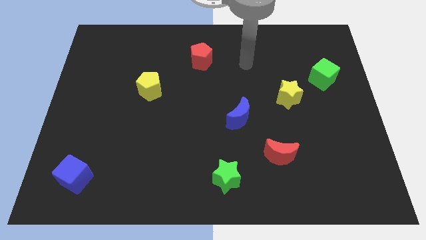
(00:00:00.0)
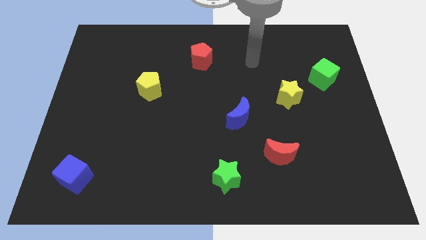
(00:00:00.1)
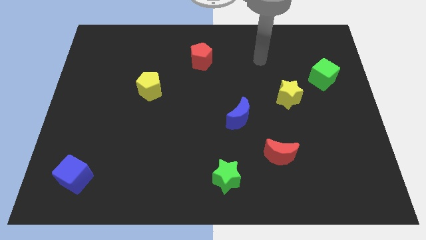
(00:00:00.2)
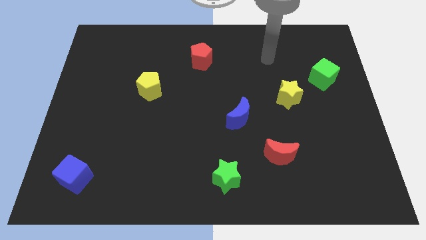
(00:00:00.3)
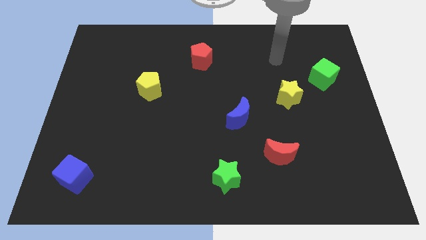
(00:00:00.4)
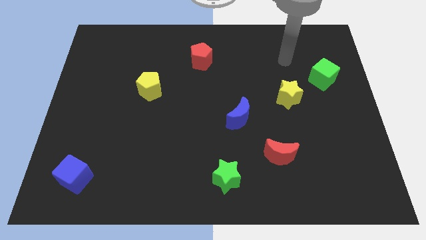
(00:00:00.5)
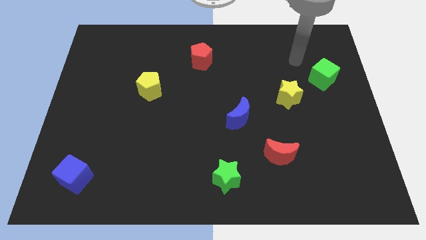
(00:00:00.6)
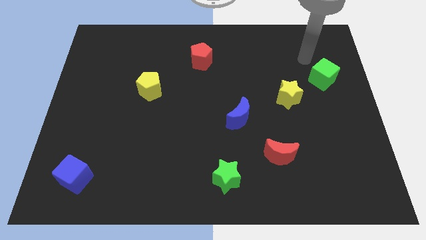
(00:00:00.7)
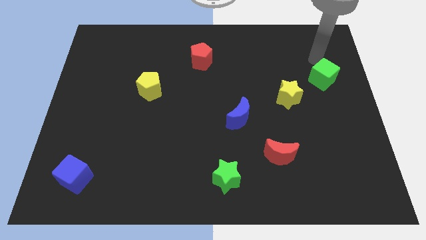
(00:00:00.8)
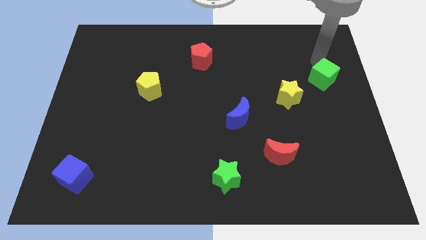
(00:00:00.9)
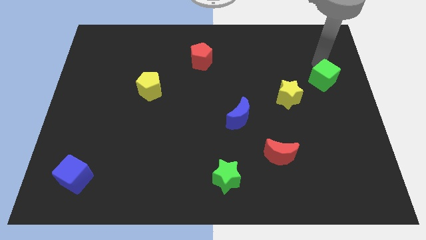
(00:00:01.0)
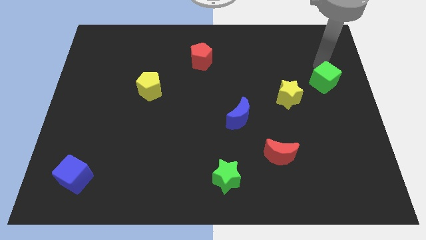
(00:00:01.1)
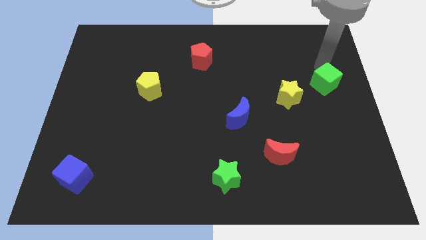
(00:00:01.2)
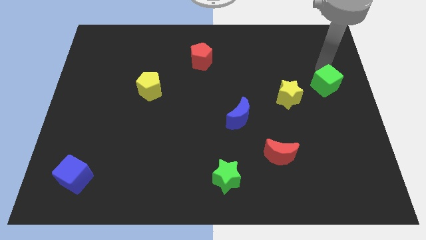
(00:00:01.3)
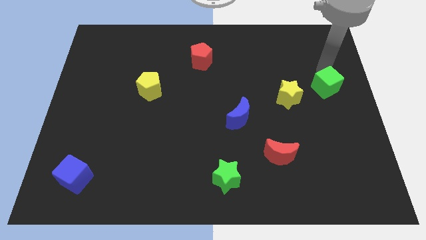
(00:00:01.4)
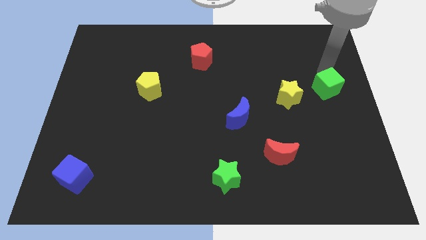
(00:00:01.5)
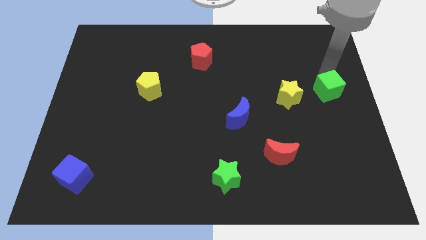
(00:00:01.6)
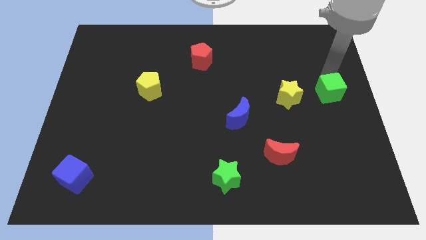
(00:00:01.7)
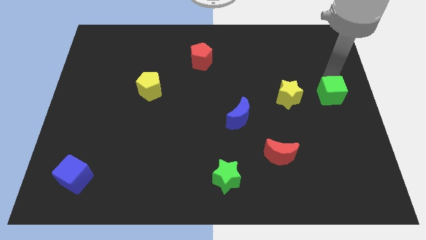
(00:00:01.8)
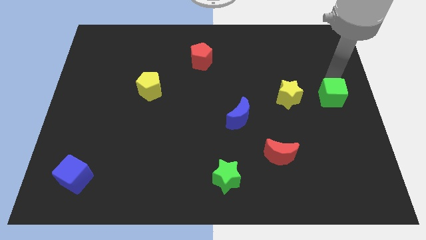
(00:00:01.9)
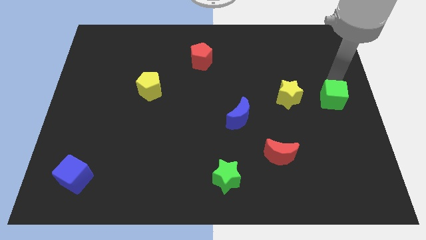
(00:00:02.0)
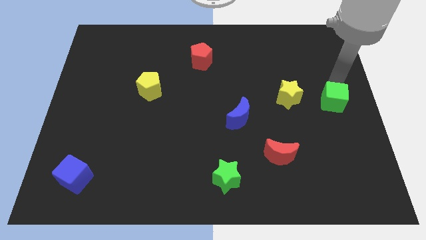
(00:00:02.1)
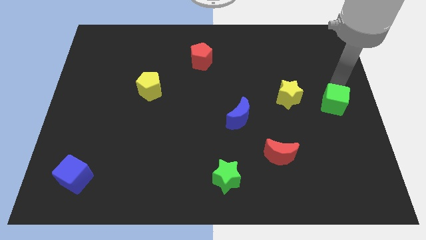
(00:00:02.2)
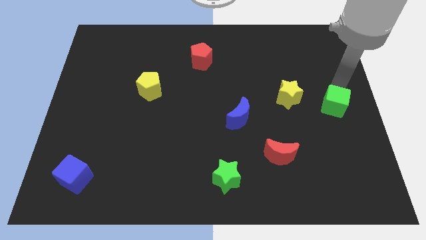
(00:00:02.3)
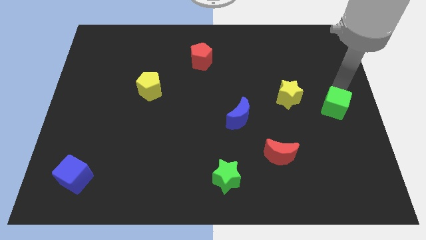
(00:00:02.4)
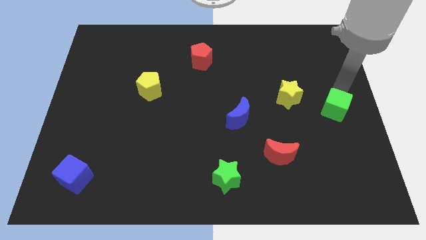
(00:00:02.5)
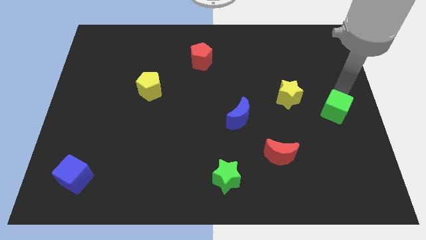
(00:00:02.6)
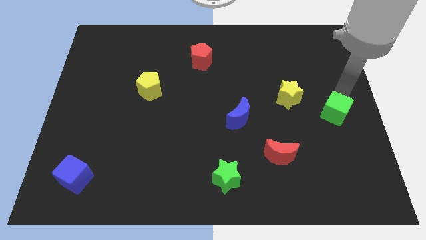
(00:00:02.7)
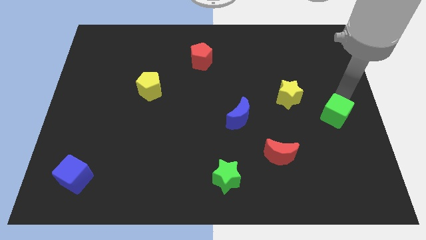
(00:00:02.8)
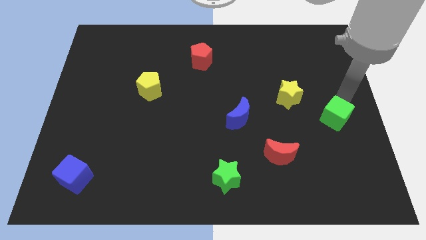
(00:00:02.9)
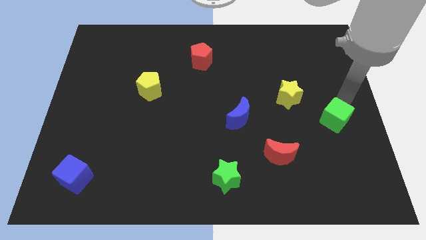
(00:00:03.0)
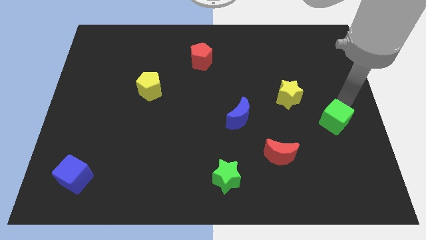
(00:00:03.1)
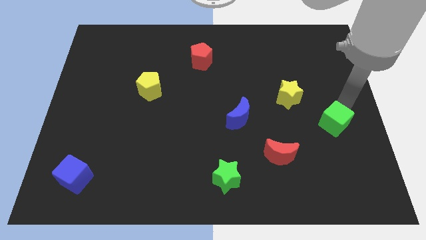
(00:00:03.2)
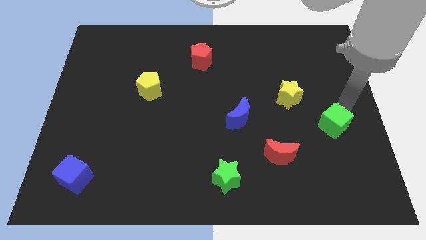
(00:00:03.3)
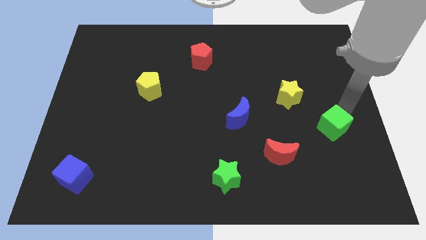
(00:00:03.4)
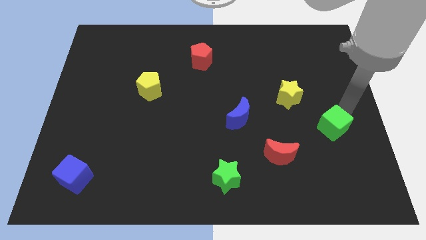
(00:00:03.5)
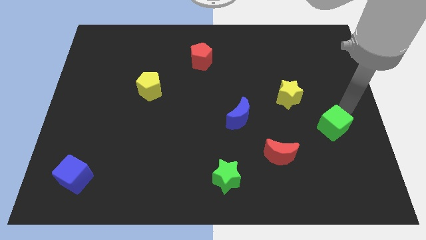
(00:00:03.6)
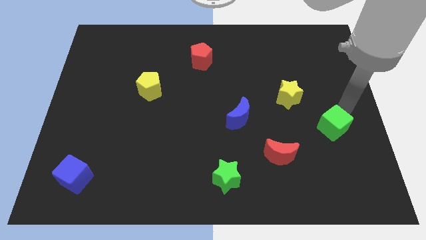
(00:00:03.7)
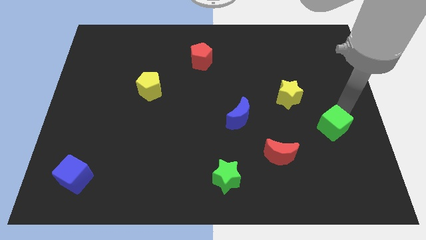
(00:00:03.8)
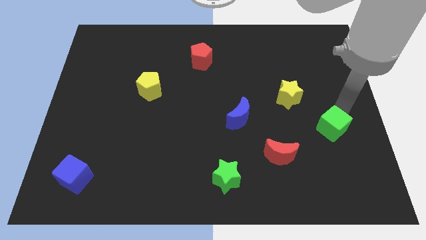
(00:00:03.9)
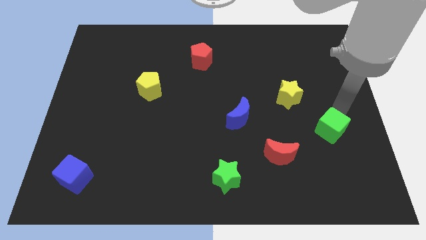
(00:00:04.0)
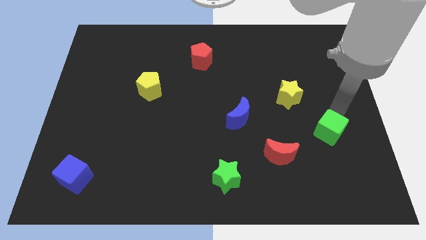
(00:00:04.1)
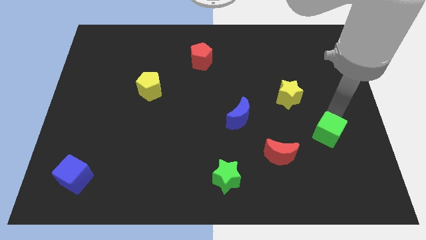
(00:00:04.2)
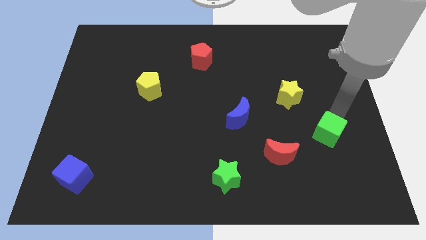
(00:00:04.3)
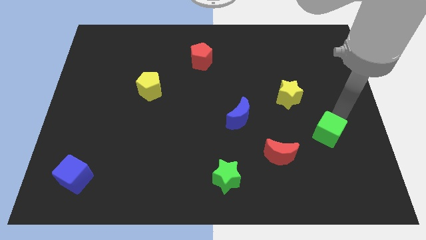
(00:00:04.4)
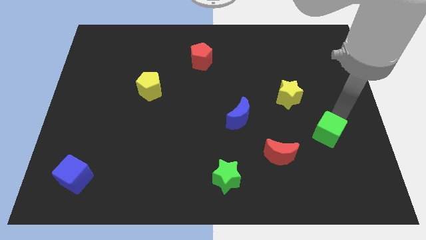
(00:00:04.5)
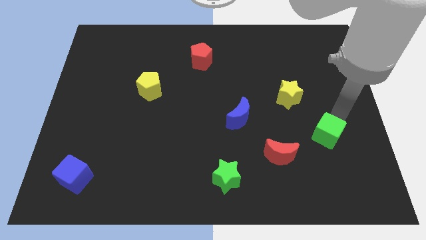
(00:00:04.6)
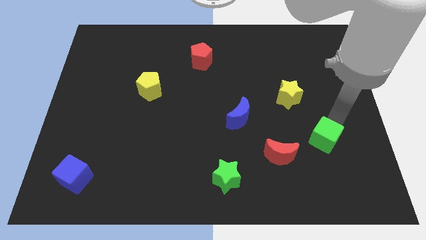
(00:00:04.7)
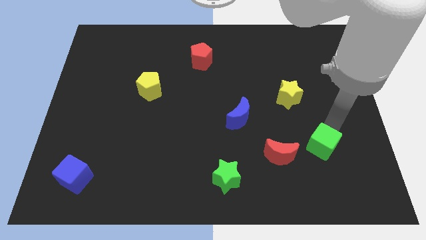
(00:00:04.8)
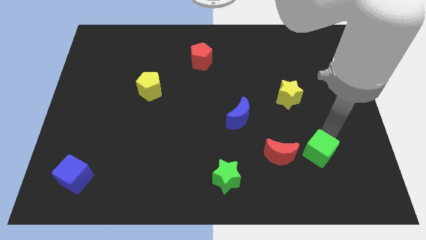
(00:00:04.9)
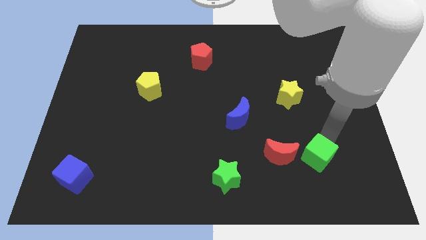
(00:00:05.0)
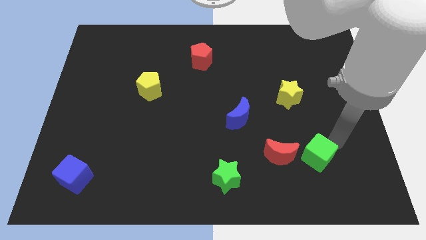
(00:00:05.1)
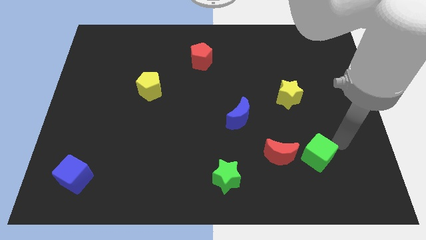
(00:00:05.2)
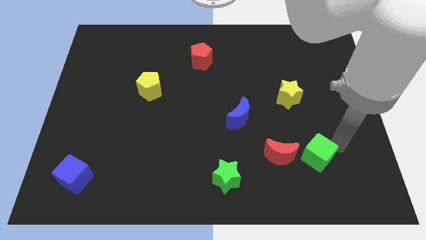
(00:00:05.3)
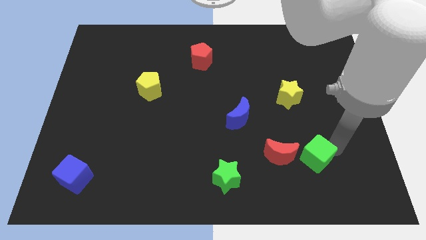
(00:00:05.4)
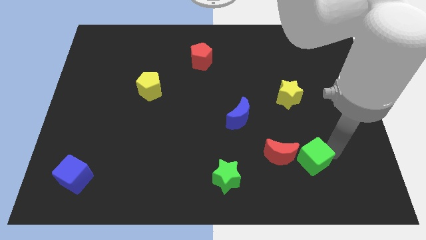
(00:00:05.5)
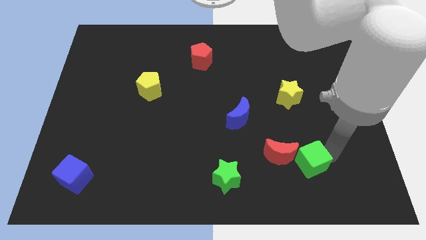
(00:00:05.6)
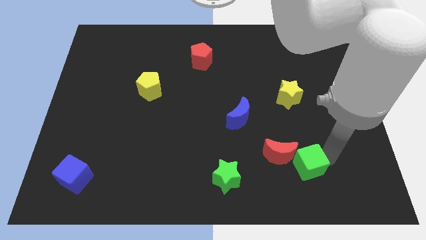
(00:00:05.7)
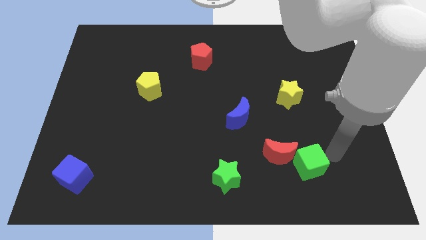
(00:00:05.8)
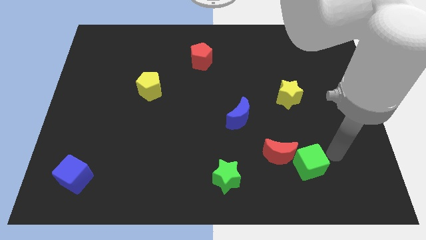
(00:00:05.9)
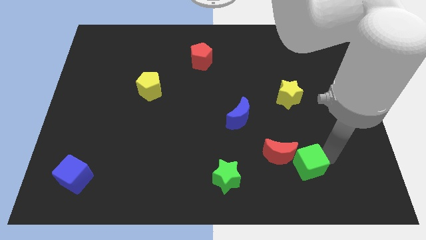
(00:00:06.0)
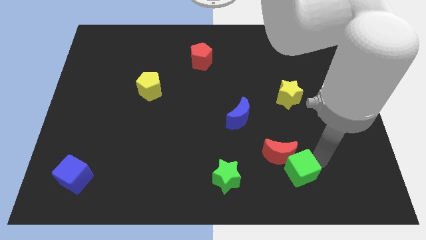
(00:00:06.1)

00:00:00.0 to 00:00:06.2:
move the green cube just right of the green star
